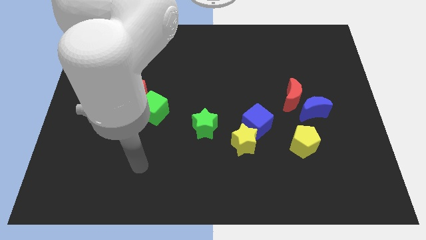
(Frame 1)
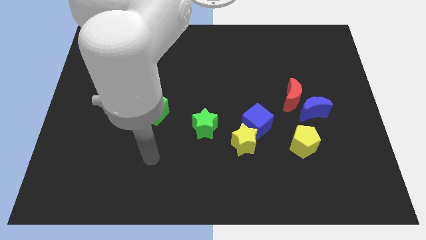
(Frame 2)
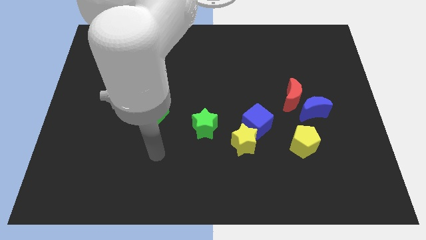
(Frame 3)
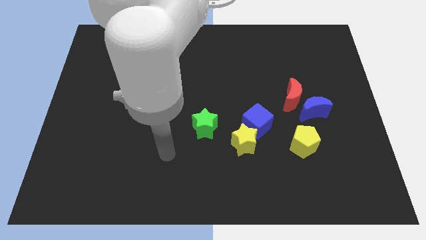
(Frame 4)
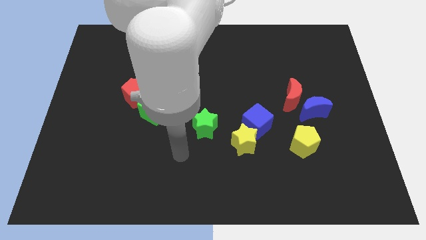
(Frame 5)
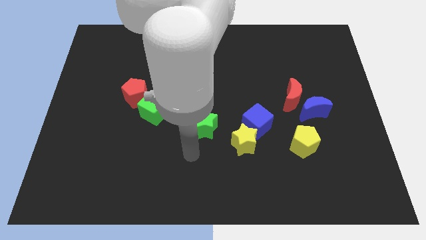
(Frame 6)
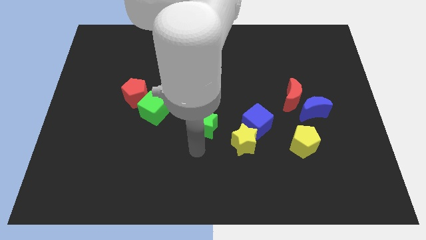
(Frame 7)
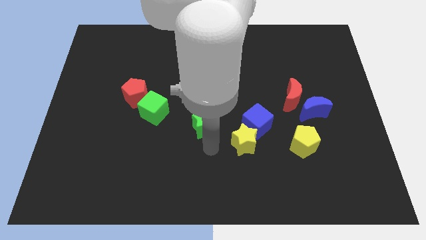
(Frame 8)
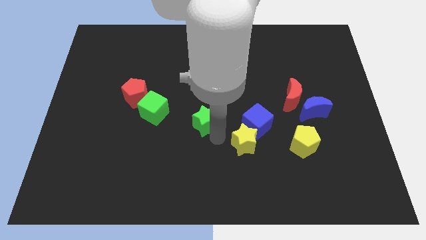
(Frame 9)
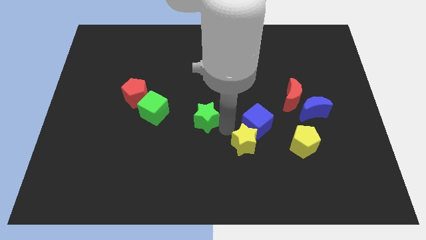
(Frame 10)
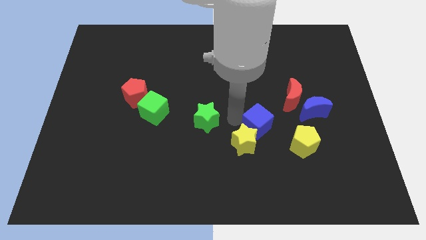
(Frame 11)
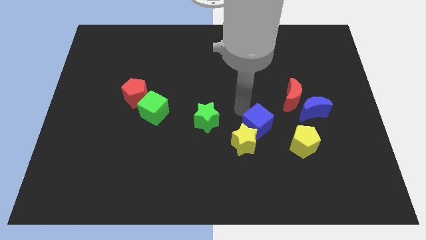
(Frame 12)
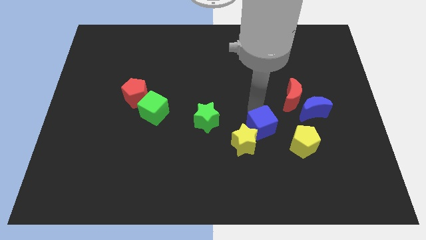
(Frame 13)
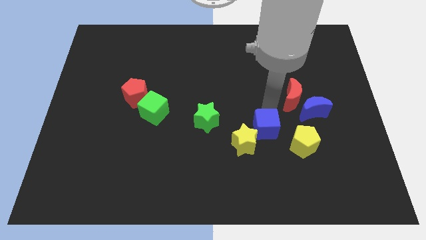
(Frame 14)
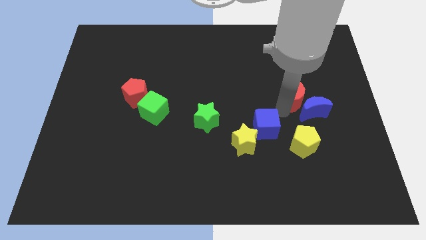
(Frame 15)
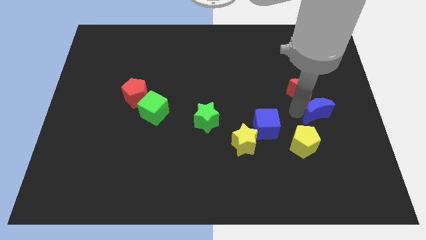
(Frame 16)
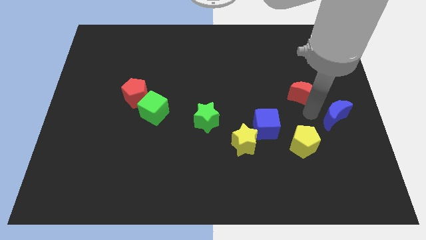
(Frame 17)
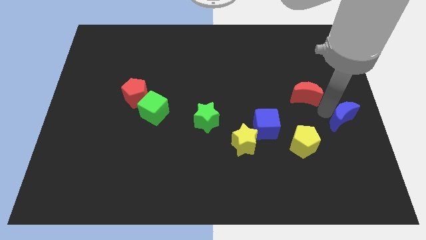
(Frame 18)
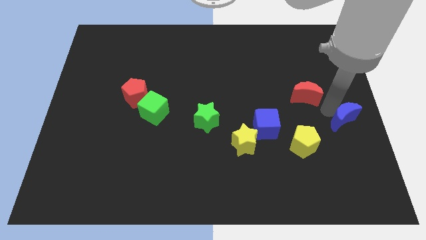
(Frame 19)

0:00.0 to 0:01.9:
move the red moon away from the blue moon

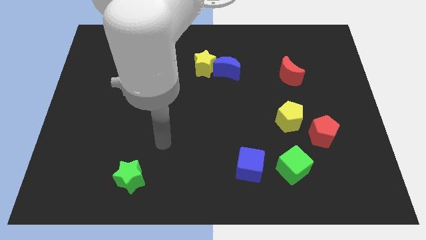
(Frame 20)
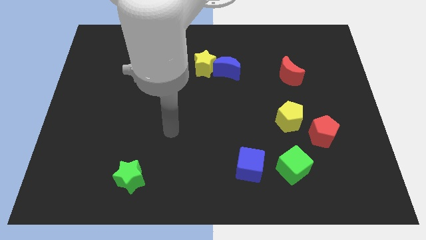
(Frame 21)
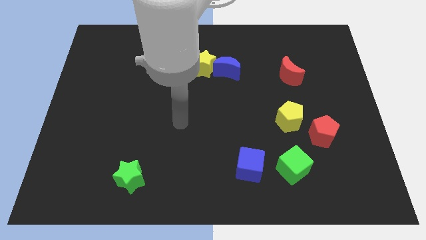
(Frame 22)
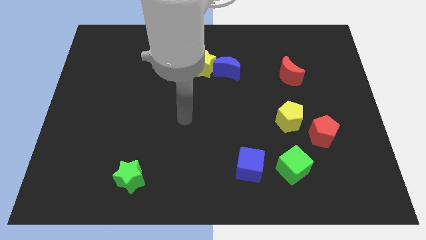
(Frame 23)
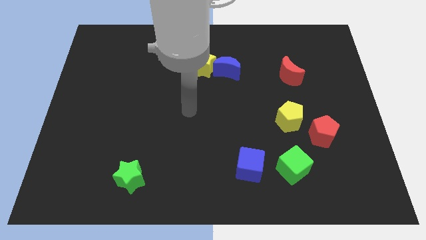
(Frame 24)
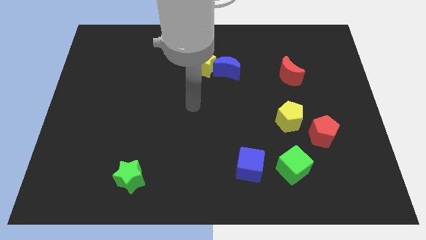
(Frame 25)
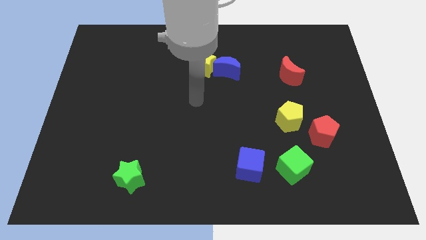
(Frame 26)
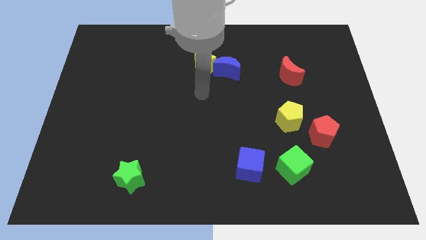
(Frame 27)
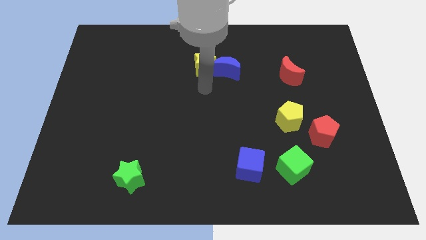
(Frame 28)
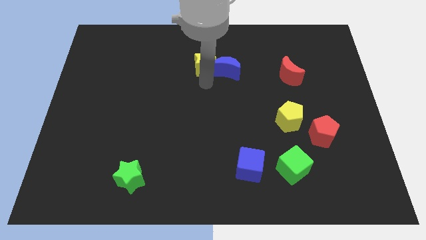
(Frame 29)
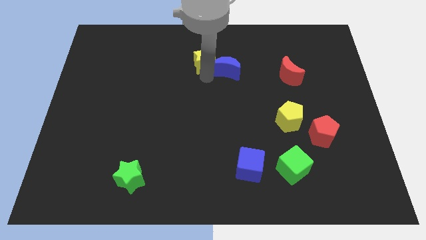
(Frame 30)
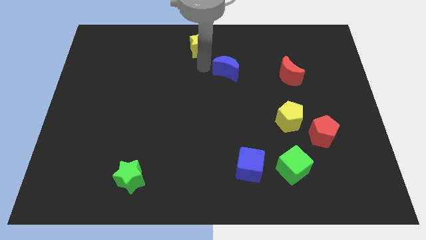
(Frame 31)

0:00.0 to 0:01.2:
move the blue moon away from the yellow star

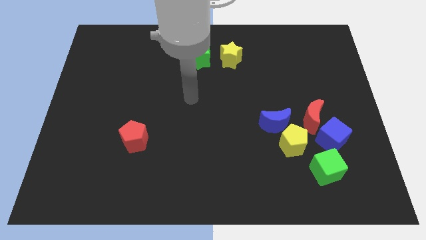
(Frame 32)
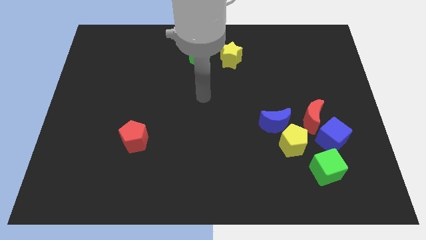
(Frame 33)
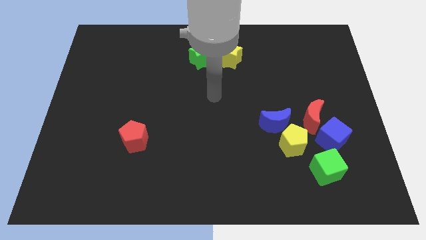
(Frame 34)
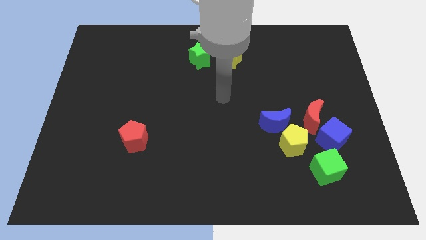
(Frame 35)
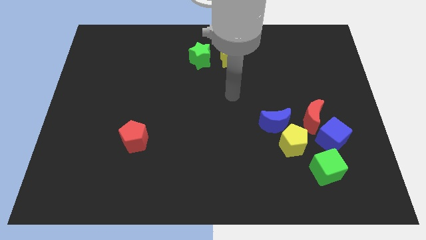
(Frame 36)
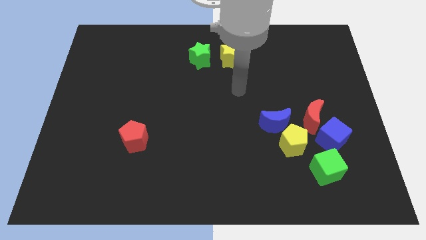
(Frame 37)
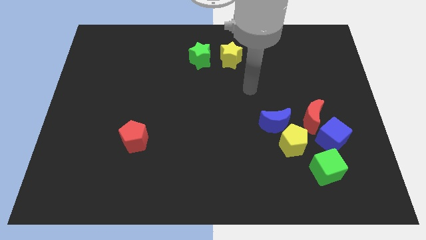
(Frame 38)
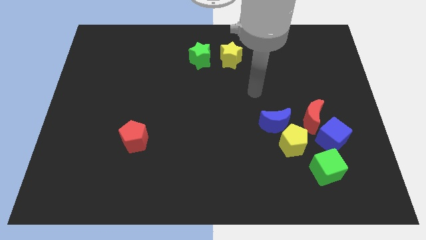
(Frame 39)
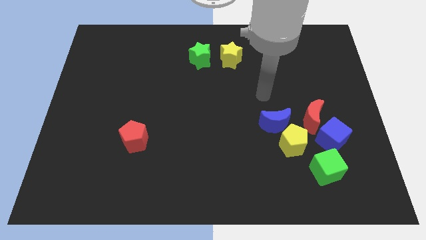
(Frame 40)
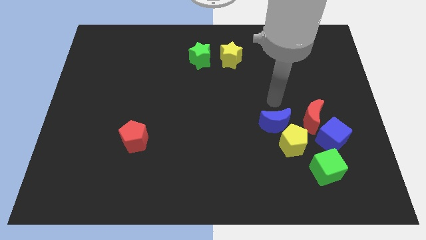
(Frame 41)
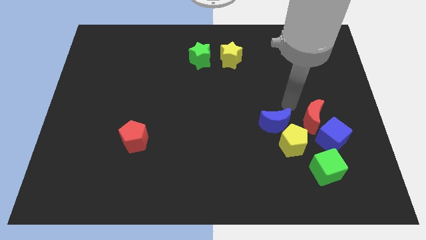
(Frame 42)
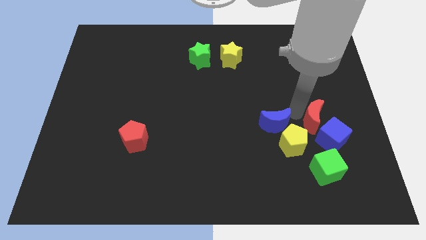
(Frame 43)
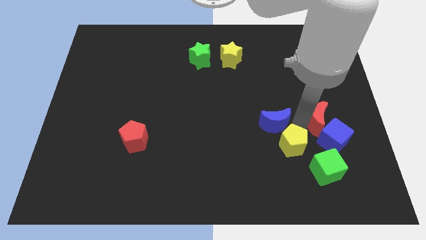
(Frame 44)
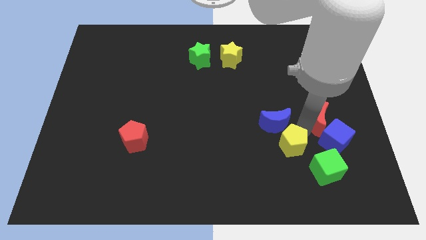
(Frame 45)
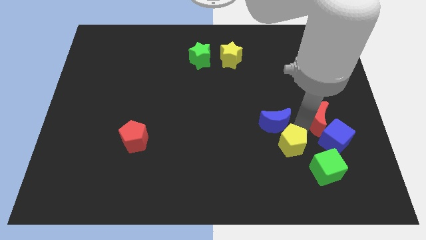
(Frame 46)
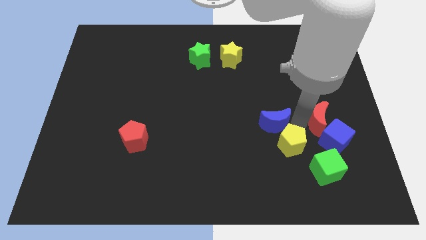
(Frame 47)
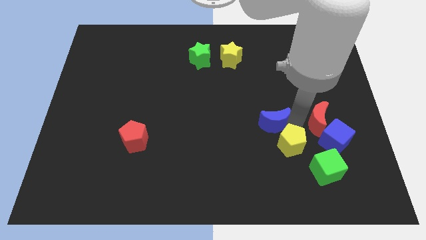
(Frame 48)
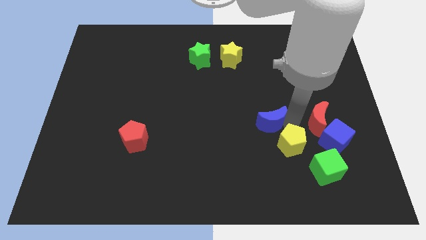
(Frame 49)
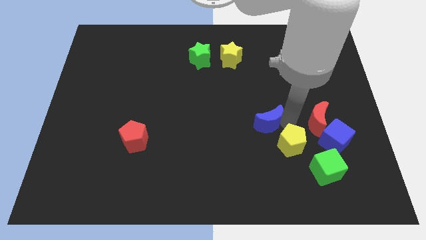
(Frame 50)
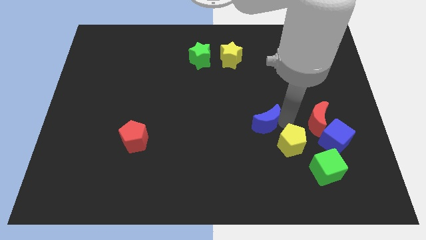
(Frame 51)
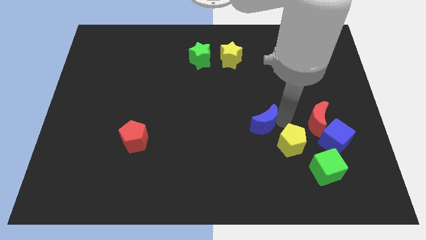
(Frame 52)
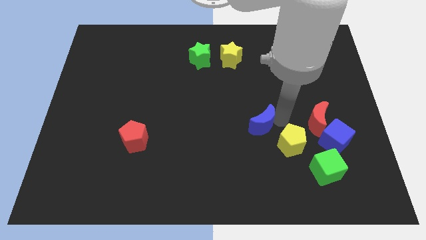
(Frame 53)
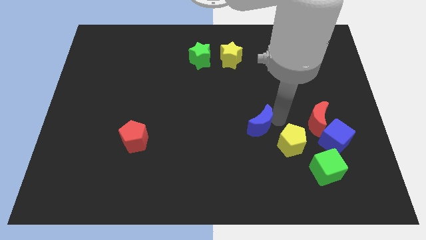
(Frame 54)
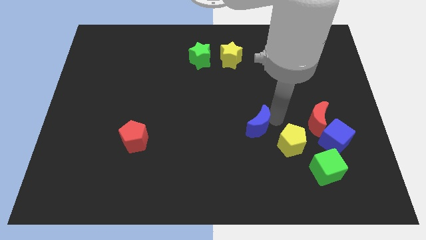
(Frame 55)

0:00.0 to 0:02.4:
move the blue moon away from the yellow pentagon and red moon

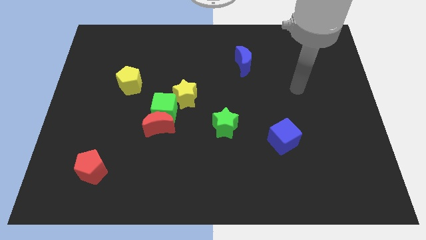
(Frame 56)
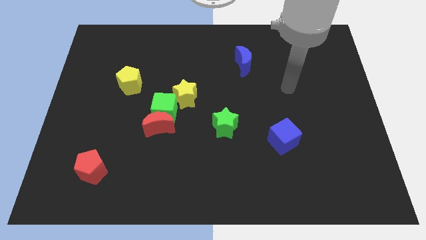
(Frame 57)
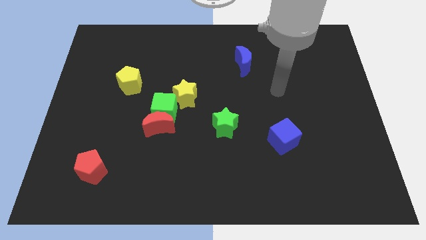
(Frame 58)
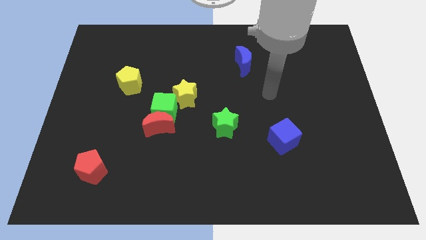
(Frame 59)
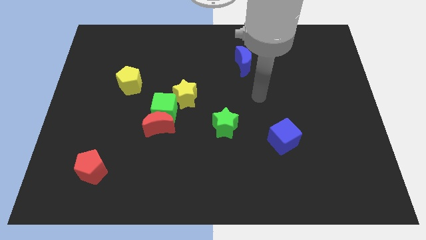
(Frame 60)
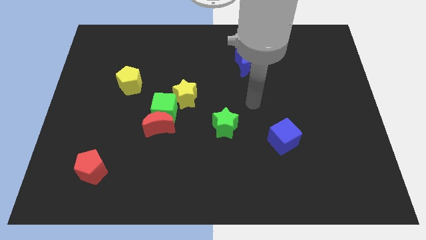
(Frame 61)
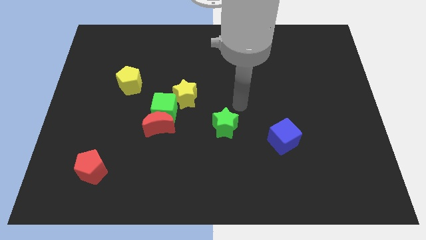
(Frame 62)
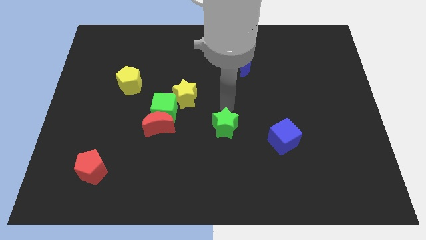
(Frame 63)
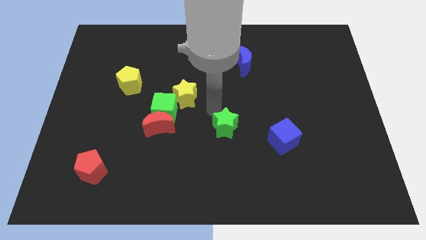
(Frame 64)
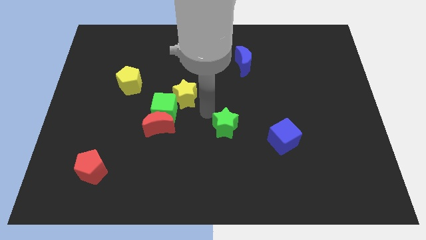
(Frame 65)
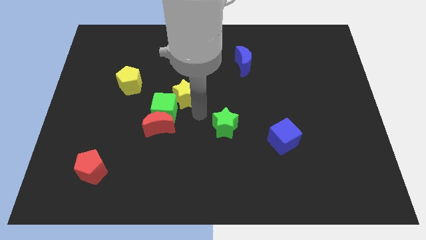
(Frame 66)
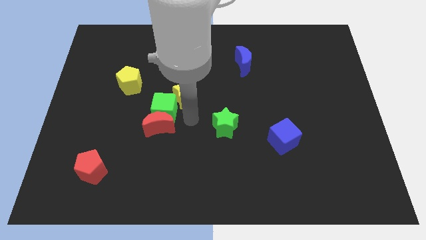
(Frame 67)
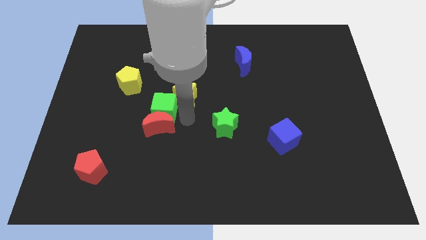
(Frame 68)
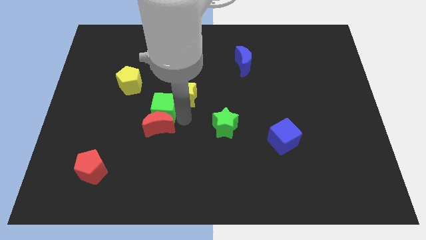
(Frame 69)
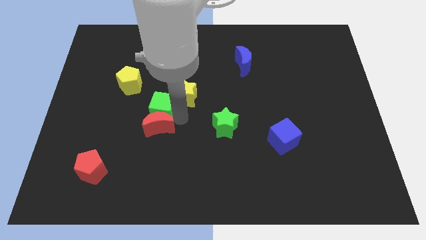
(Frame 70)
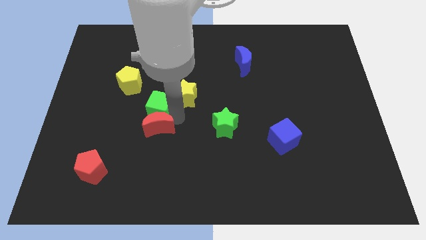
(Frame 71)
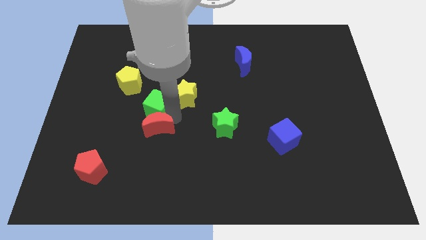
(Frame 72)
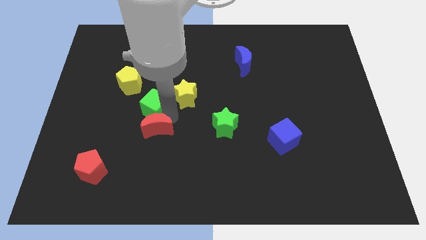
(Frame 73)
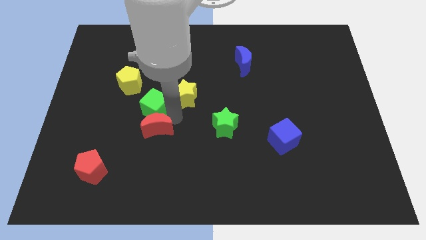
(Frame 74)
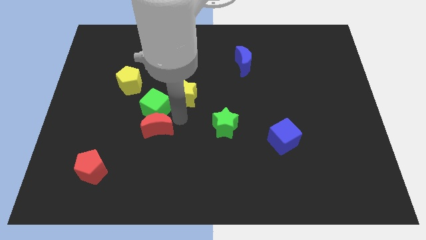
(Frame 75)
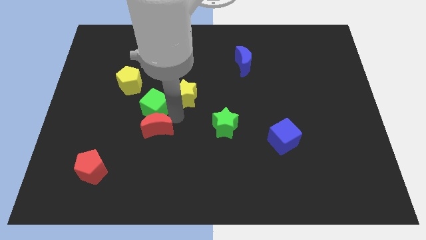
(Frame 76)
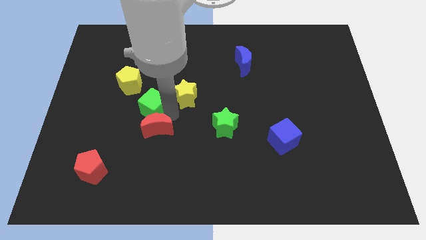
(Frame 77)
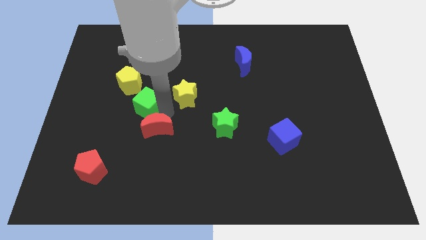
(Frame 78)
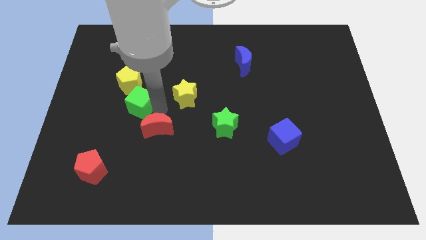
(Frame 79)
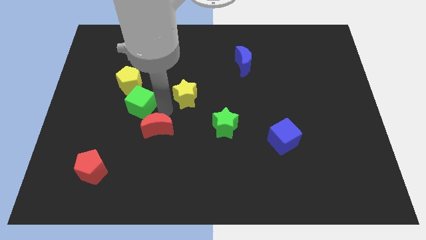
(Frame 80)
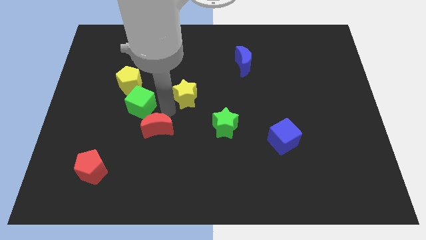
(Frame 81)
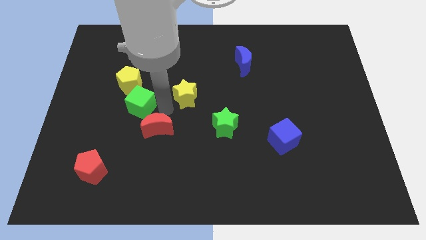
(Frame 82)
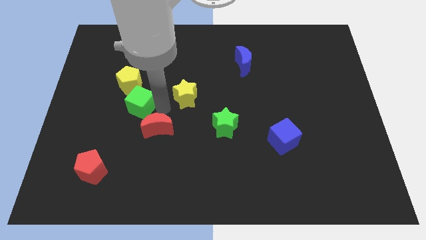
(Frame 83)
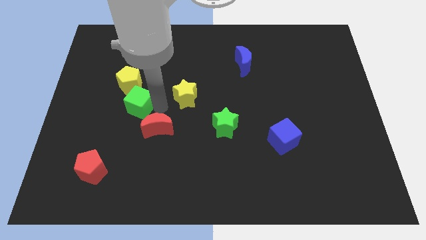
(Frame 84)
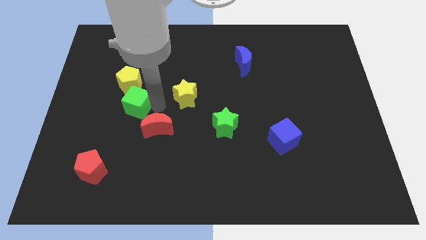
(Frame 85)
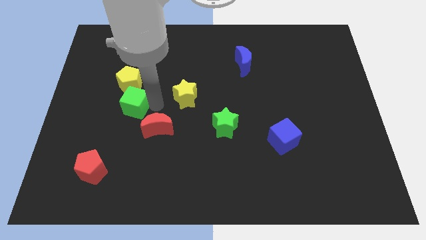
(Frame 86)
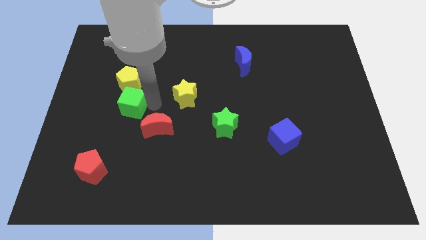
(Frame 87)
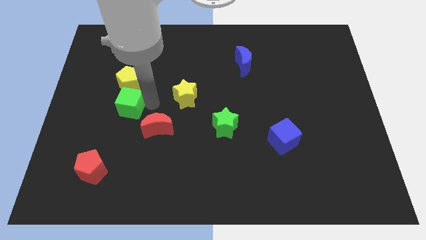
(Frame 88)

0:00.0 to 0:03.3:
move the green cube away from the red moon and yellow star

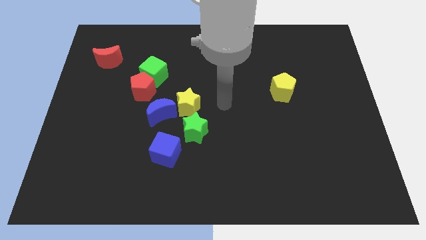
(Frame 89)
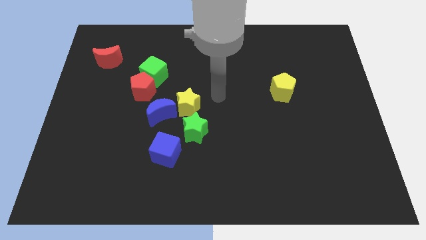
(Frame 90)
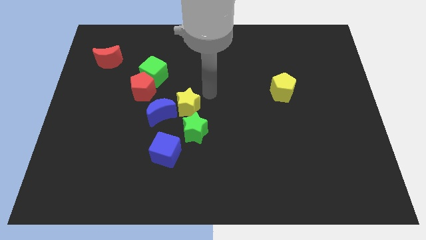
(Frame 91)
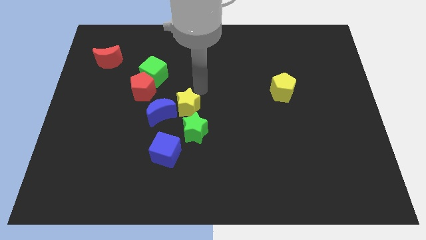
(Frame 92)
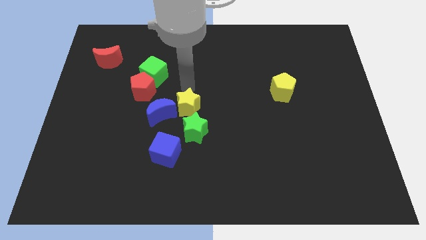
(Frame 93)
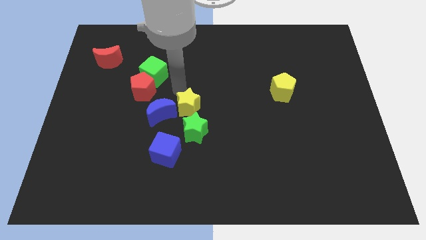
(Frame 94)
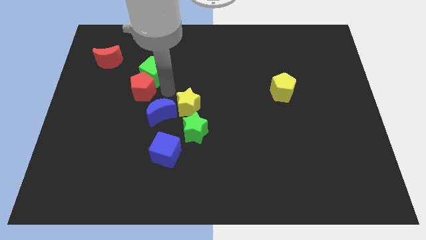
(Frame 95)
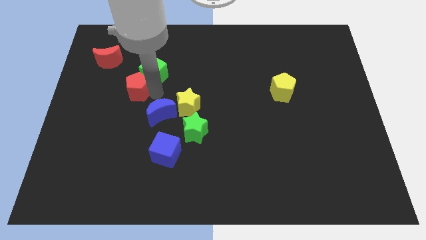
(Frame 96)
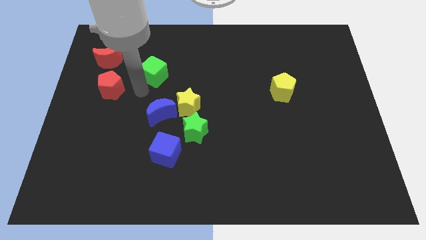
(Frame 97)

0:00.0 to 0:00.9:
separate the green cube from the red pentagon
